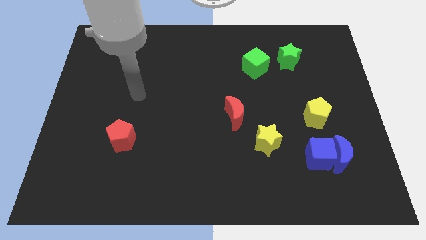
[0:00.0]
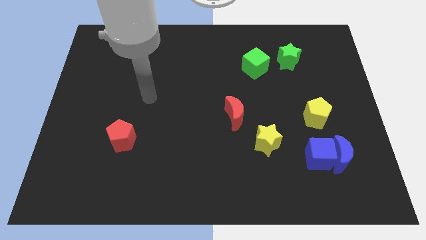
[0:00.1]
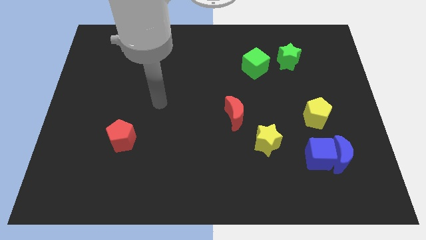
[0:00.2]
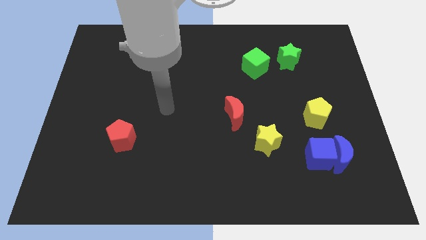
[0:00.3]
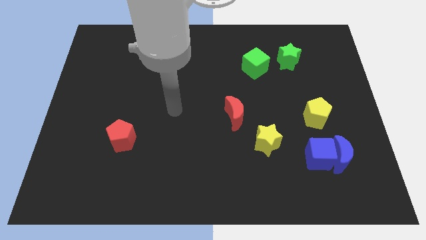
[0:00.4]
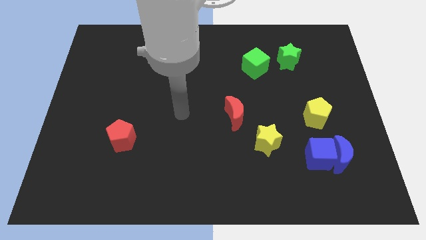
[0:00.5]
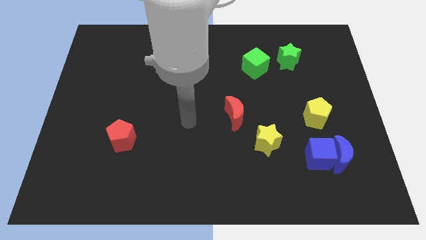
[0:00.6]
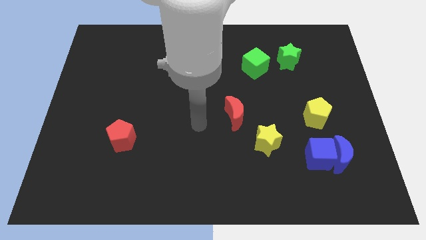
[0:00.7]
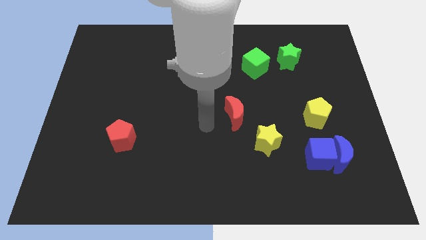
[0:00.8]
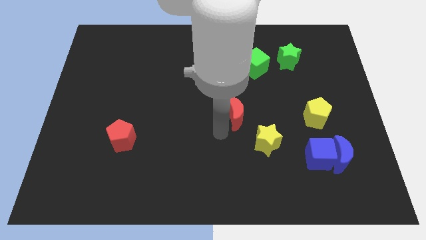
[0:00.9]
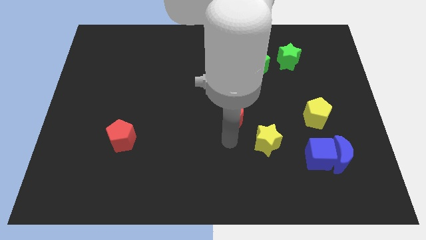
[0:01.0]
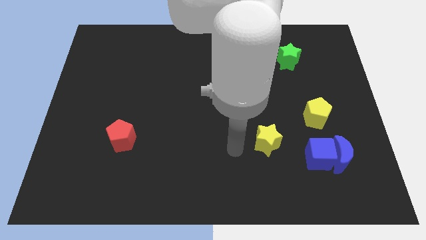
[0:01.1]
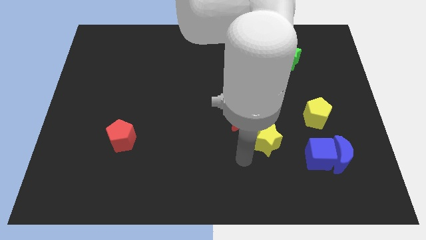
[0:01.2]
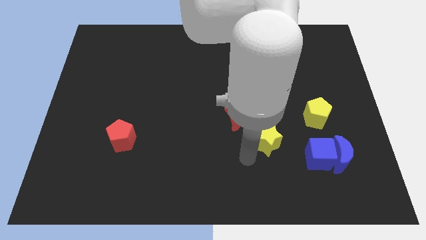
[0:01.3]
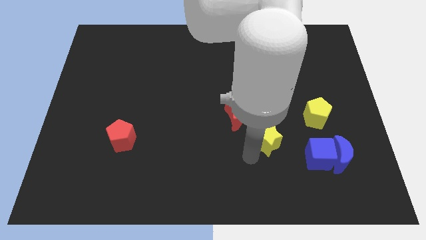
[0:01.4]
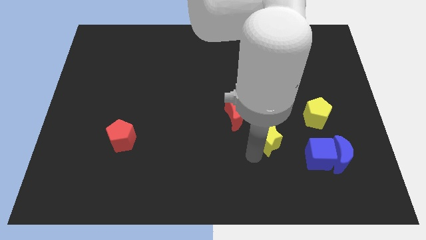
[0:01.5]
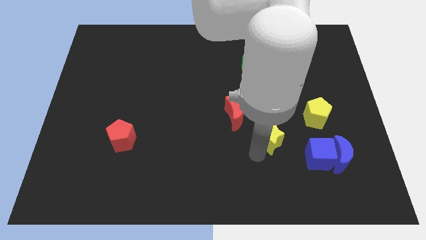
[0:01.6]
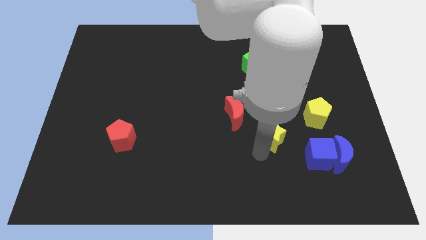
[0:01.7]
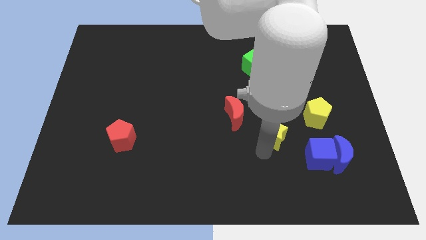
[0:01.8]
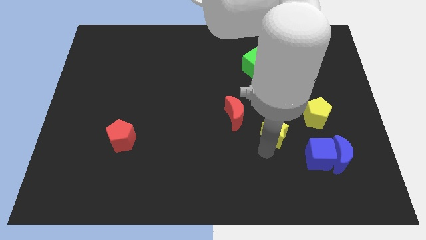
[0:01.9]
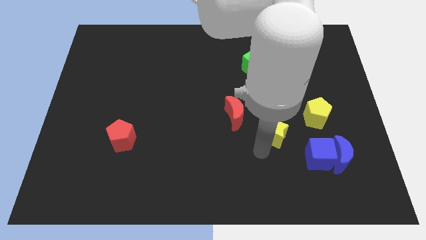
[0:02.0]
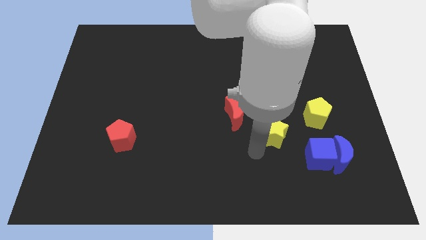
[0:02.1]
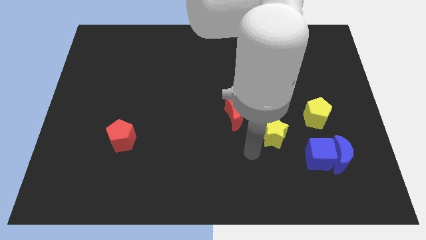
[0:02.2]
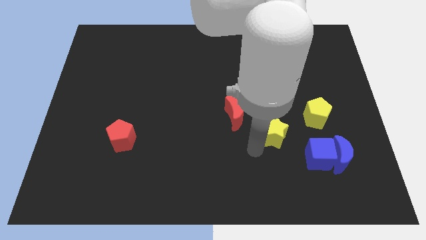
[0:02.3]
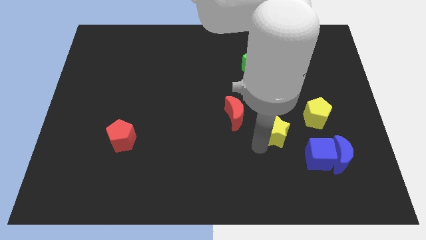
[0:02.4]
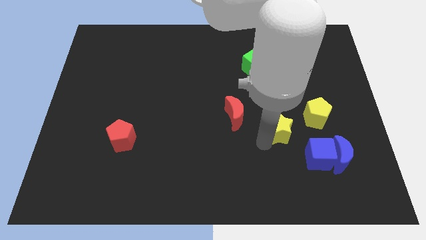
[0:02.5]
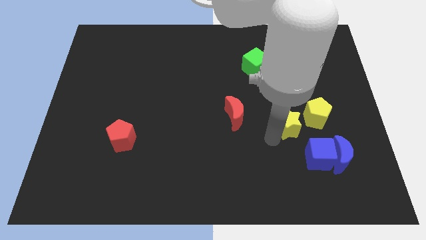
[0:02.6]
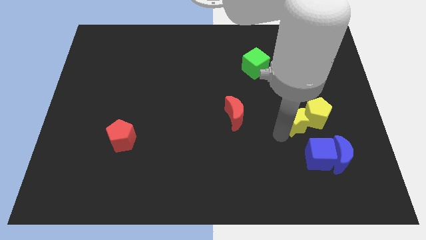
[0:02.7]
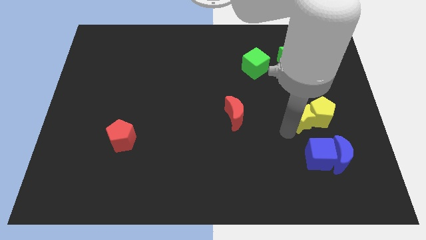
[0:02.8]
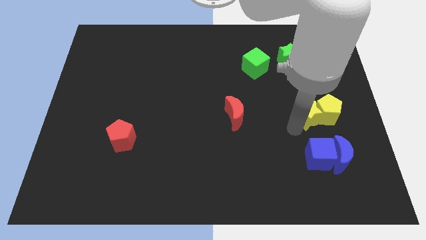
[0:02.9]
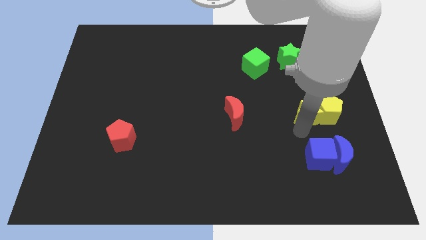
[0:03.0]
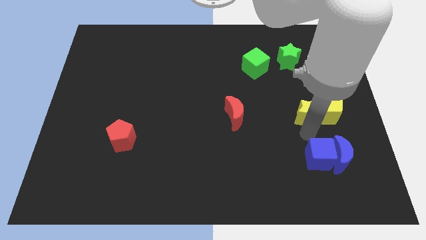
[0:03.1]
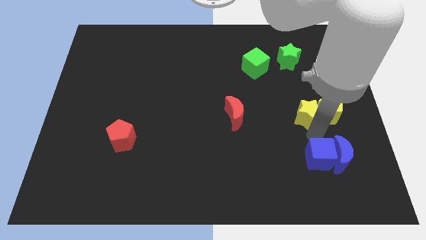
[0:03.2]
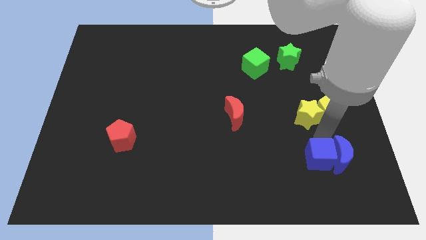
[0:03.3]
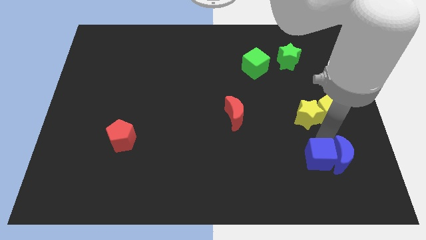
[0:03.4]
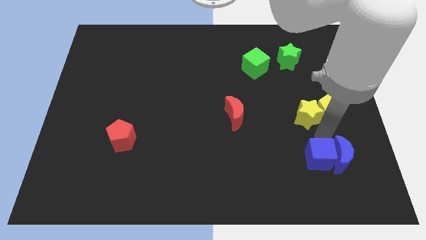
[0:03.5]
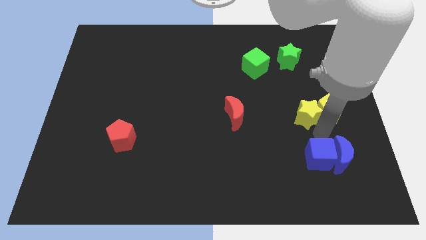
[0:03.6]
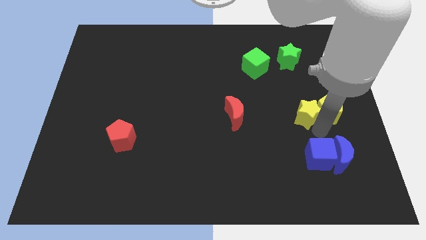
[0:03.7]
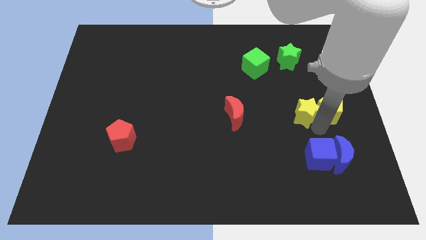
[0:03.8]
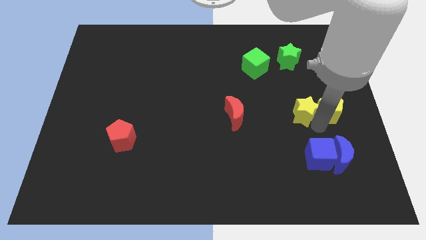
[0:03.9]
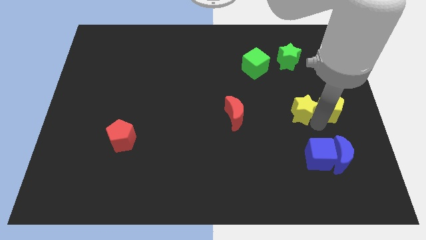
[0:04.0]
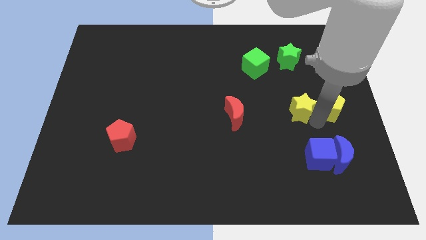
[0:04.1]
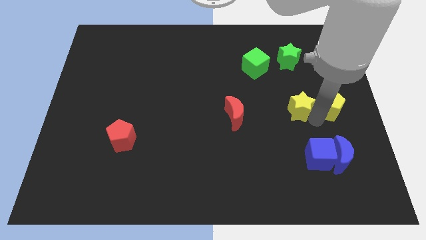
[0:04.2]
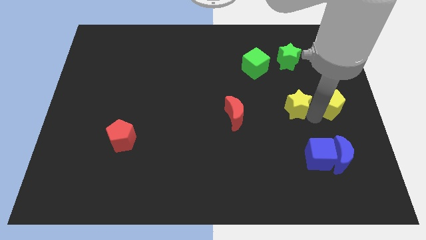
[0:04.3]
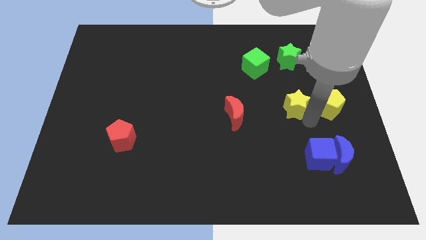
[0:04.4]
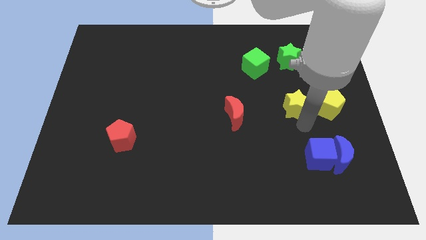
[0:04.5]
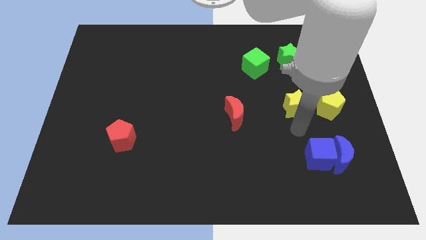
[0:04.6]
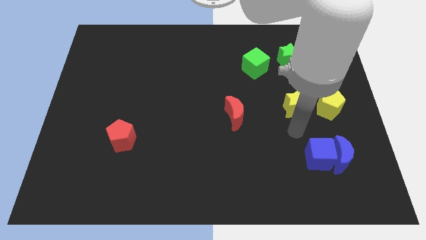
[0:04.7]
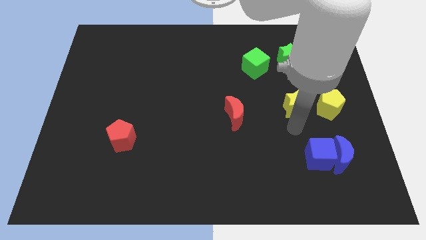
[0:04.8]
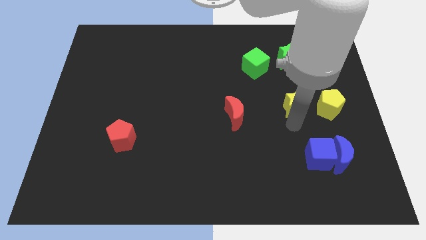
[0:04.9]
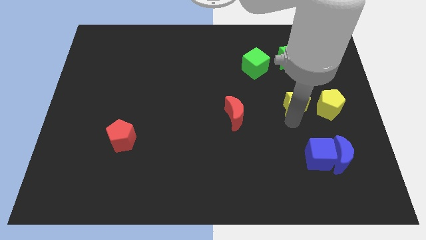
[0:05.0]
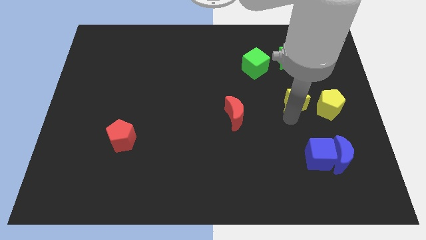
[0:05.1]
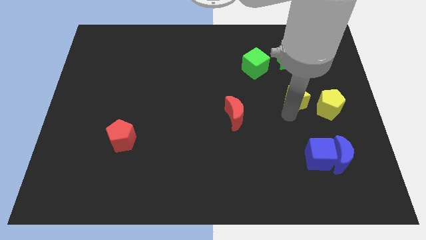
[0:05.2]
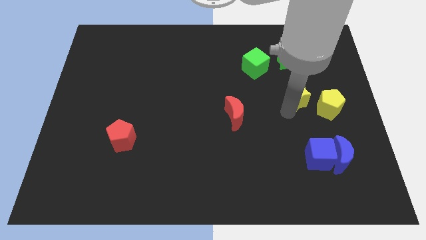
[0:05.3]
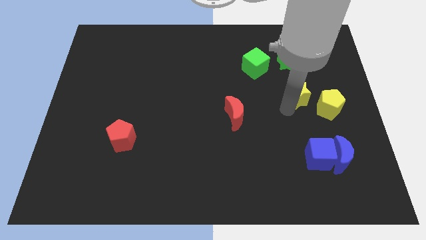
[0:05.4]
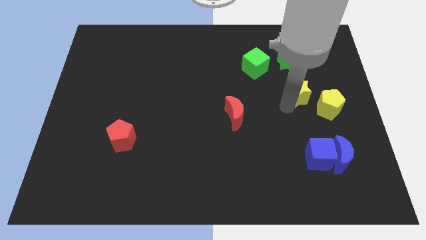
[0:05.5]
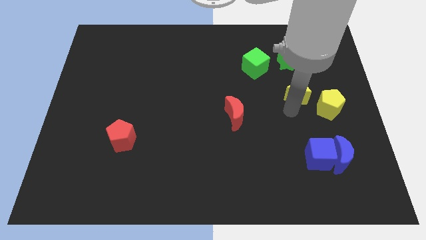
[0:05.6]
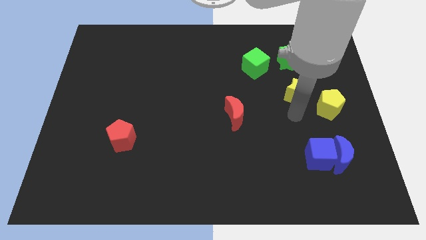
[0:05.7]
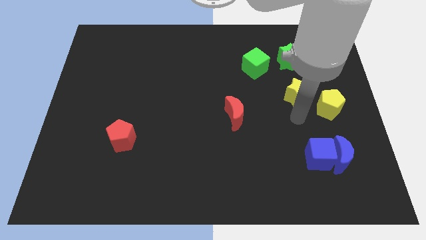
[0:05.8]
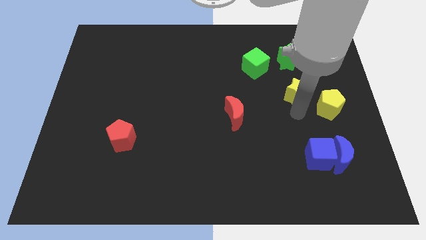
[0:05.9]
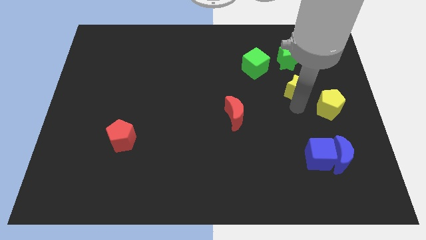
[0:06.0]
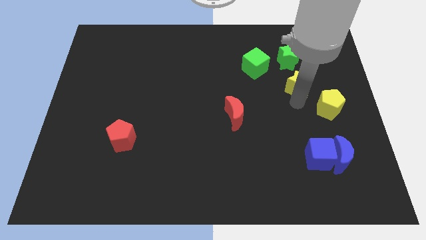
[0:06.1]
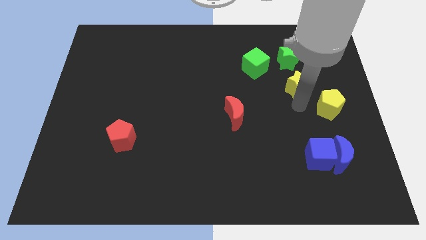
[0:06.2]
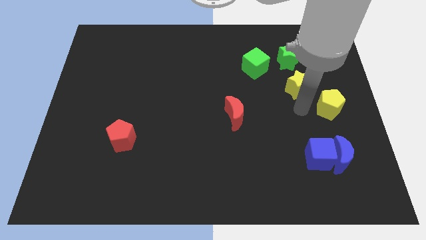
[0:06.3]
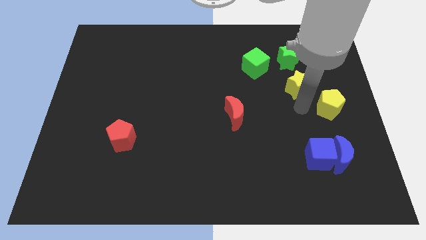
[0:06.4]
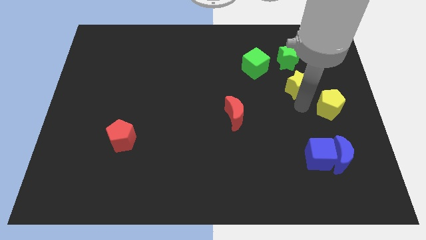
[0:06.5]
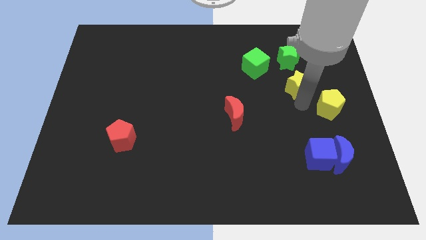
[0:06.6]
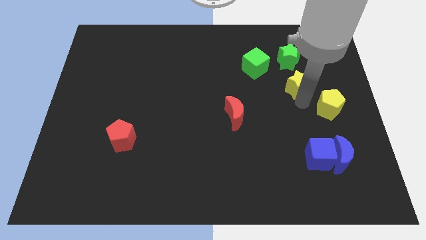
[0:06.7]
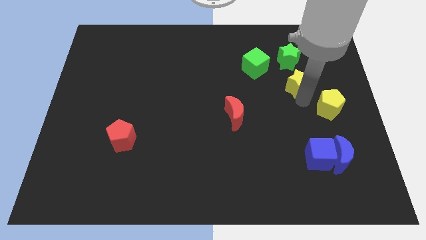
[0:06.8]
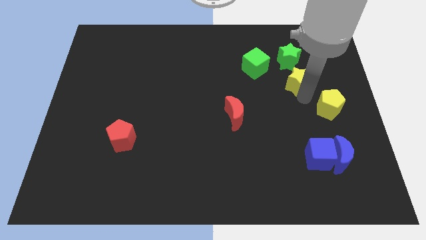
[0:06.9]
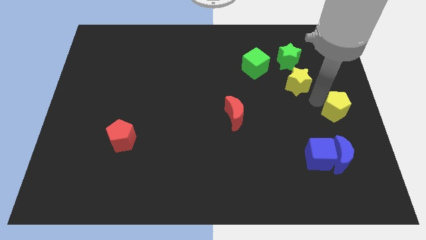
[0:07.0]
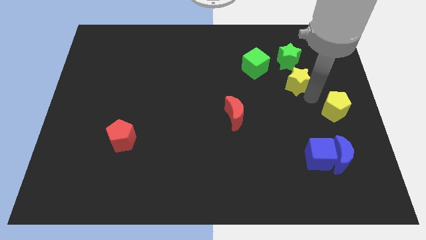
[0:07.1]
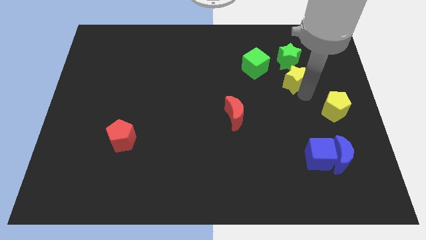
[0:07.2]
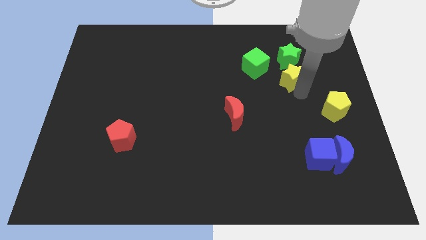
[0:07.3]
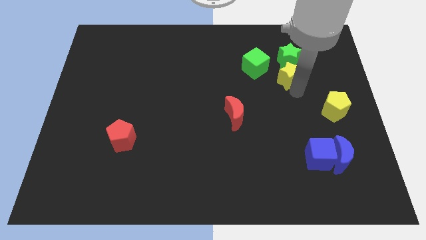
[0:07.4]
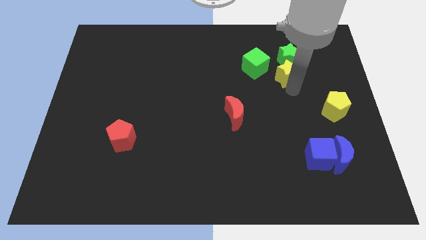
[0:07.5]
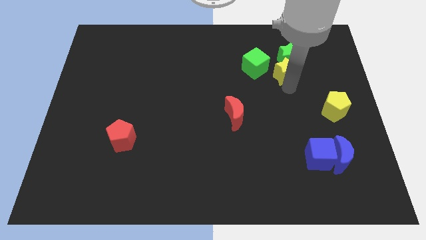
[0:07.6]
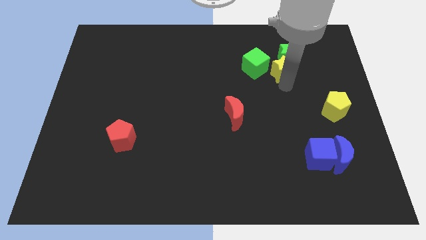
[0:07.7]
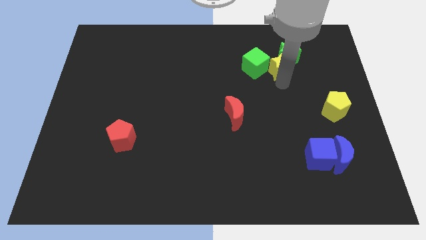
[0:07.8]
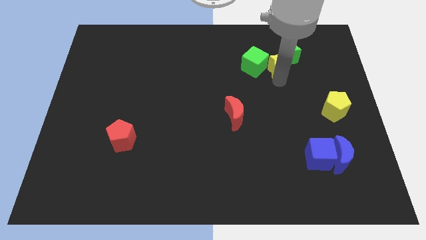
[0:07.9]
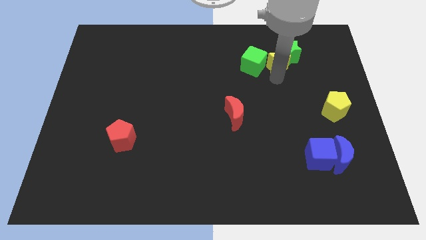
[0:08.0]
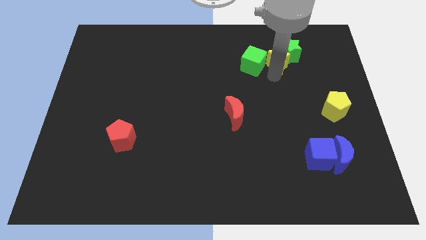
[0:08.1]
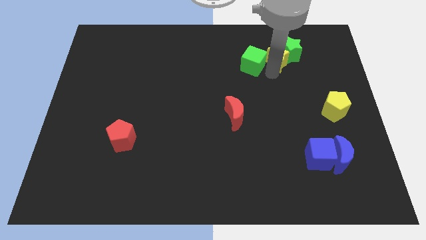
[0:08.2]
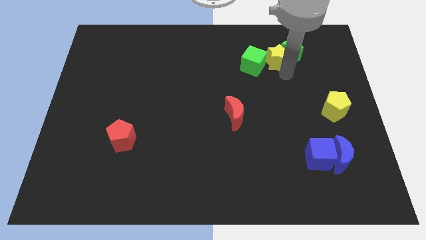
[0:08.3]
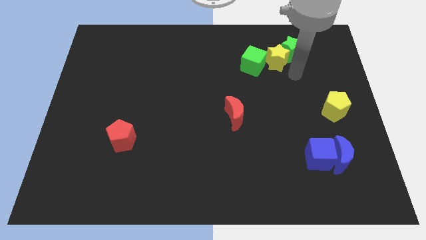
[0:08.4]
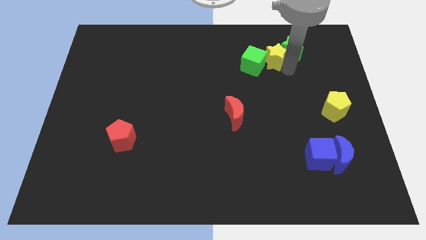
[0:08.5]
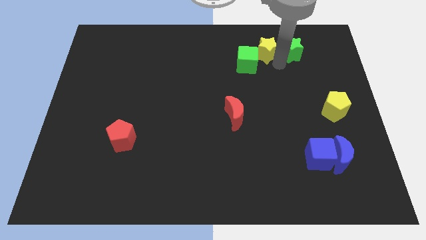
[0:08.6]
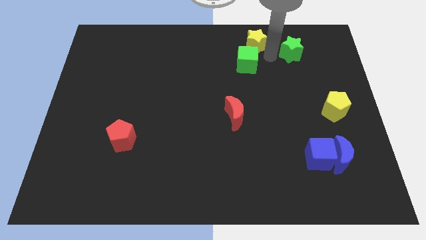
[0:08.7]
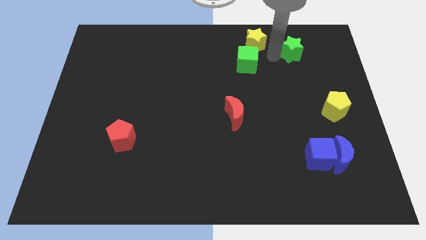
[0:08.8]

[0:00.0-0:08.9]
push the yellow star to the top

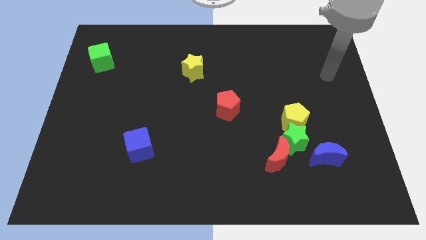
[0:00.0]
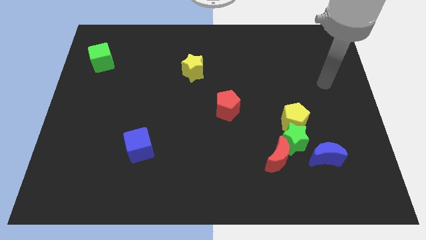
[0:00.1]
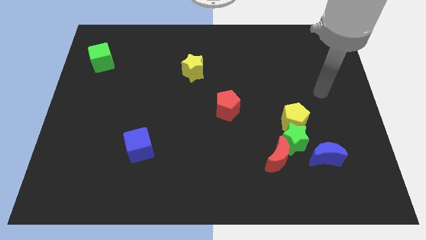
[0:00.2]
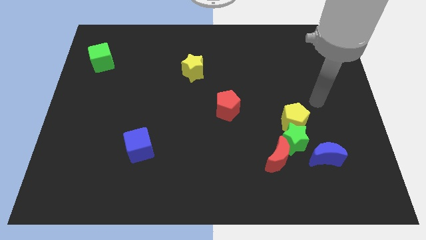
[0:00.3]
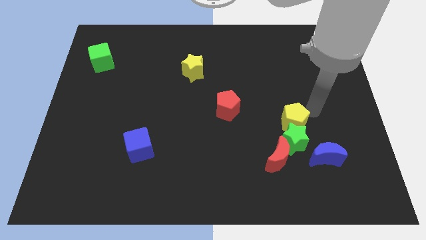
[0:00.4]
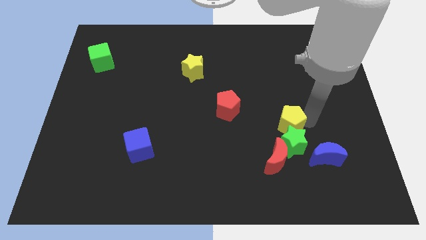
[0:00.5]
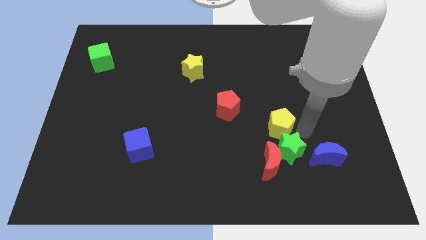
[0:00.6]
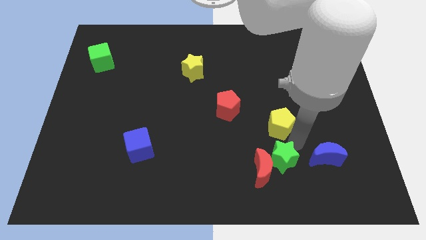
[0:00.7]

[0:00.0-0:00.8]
move the red moon to the bottom
